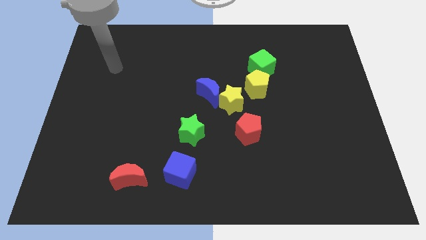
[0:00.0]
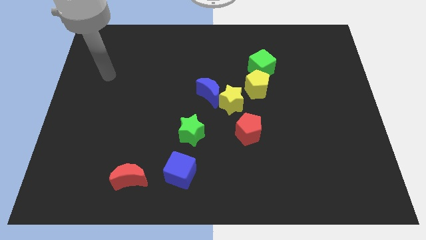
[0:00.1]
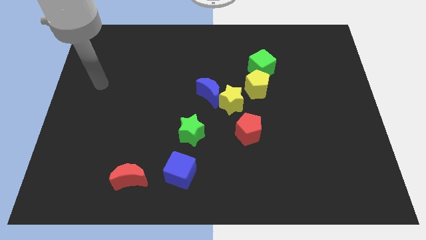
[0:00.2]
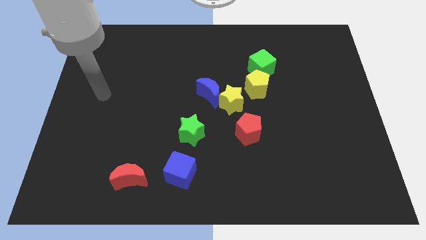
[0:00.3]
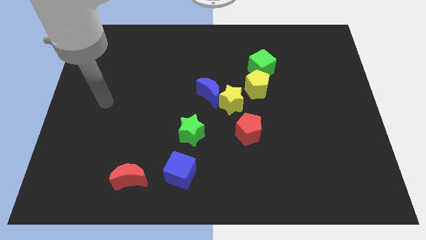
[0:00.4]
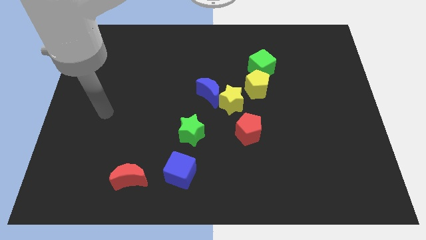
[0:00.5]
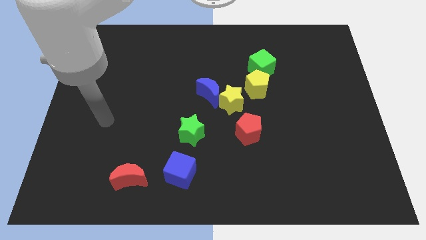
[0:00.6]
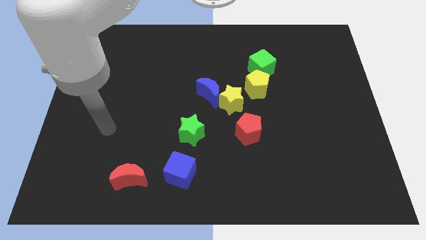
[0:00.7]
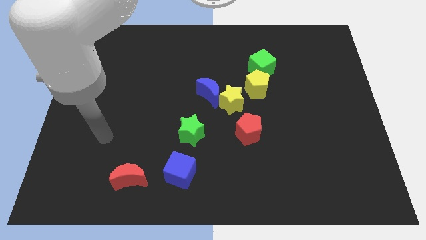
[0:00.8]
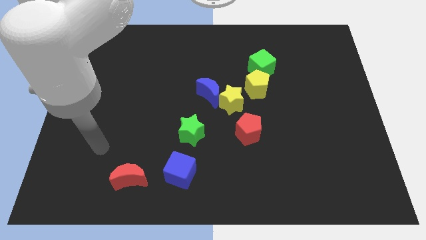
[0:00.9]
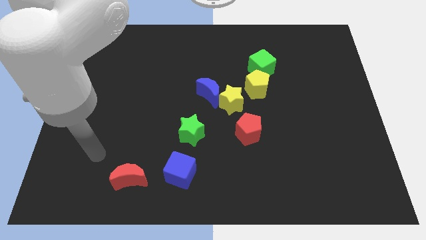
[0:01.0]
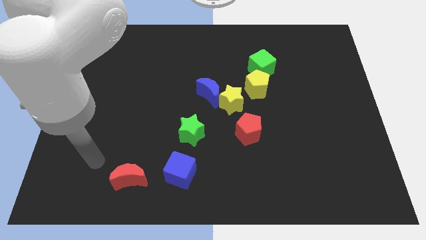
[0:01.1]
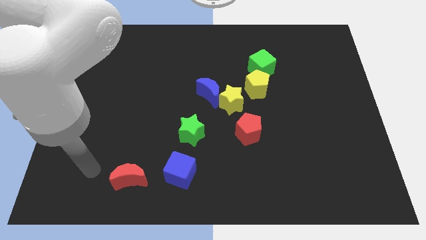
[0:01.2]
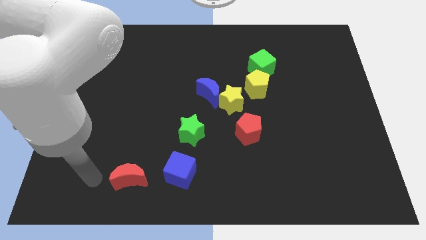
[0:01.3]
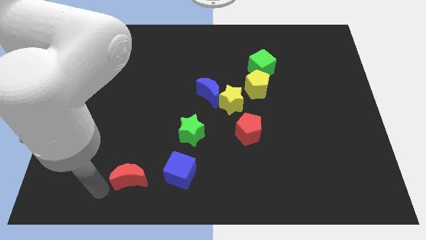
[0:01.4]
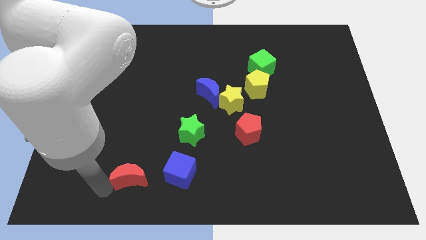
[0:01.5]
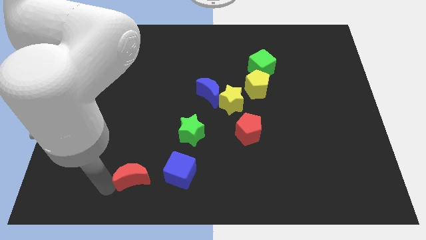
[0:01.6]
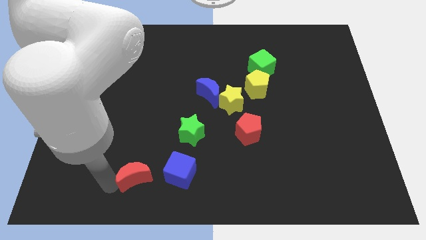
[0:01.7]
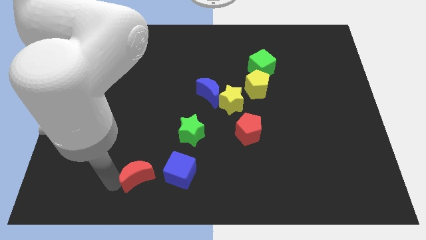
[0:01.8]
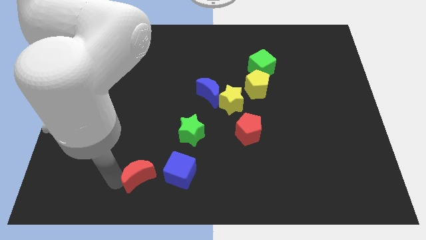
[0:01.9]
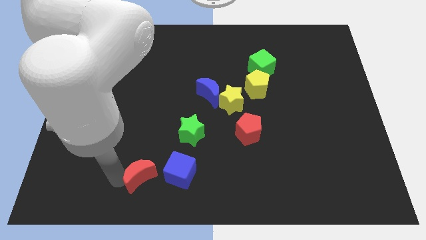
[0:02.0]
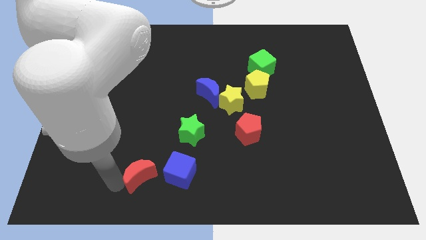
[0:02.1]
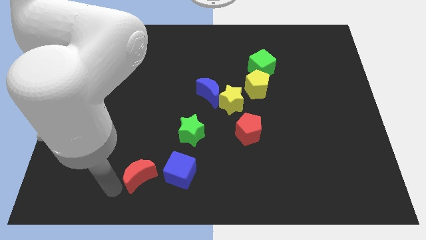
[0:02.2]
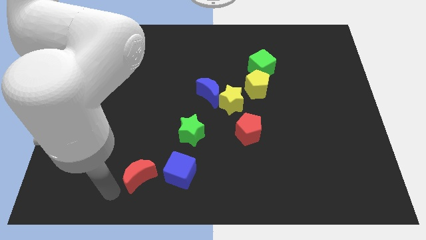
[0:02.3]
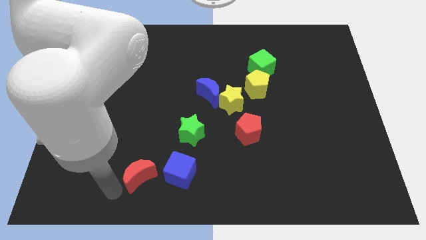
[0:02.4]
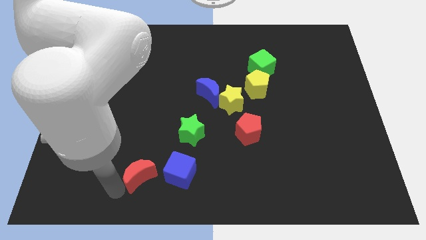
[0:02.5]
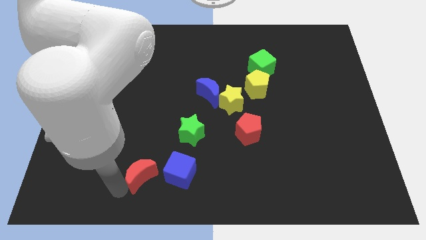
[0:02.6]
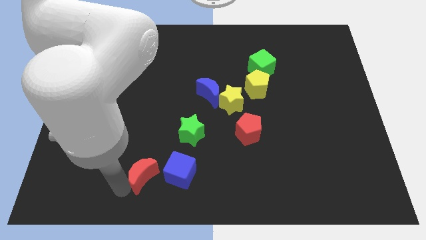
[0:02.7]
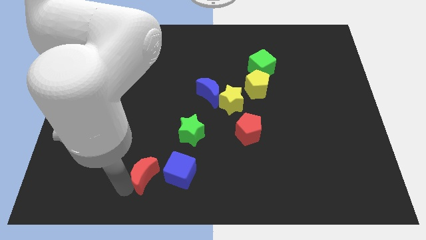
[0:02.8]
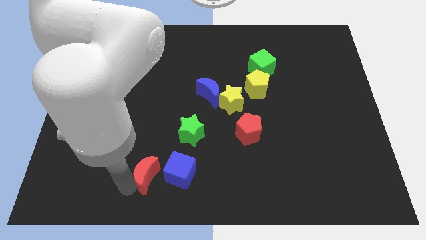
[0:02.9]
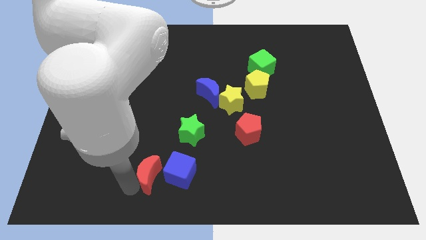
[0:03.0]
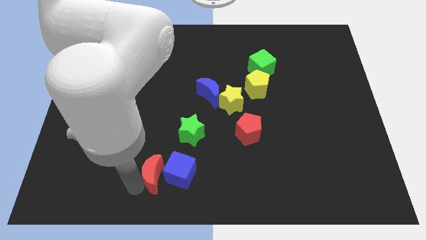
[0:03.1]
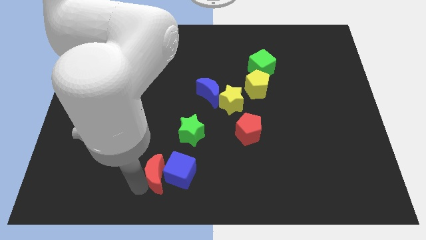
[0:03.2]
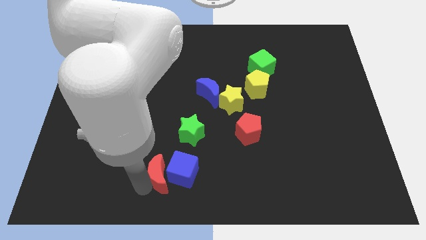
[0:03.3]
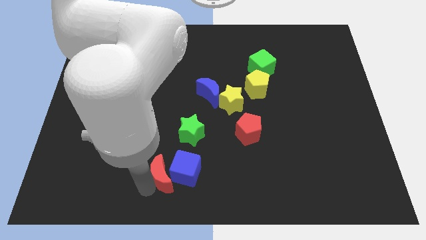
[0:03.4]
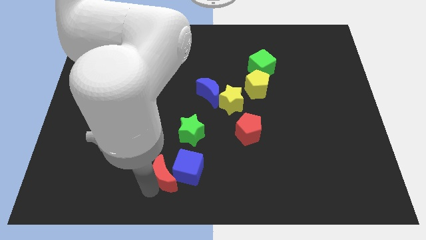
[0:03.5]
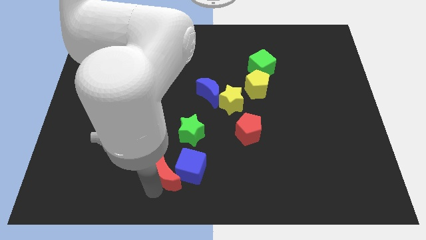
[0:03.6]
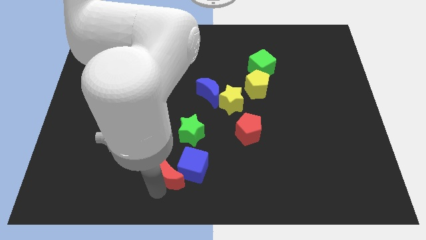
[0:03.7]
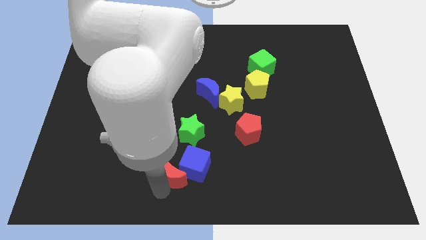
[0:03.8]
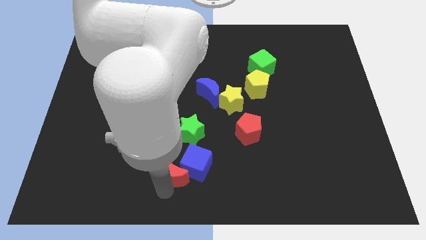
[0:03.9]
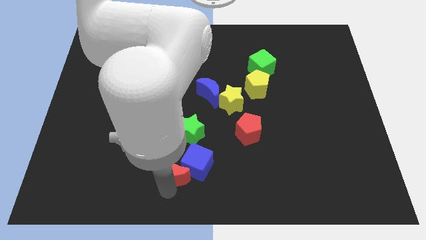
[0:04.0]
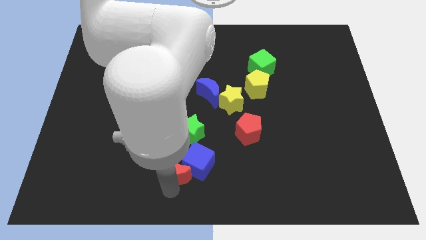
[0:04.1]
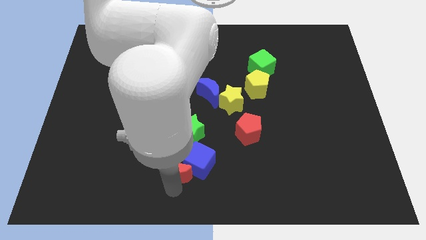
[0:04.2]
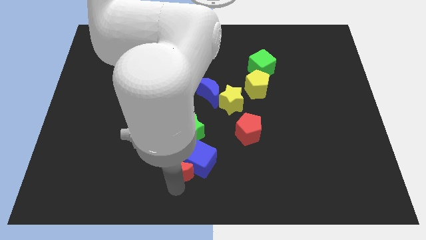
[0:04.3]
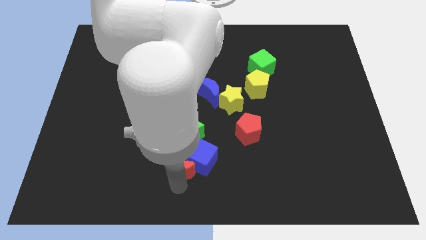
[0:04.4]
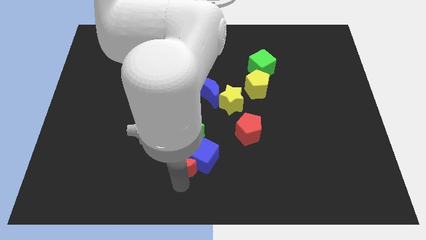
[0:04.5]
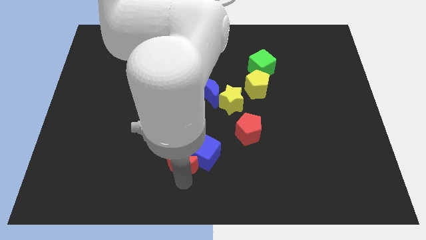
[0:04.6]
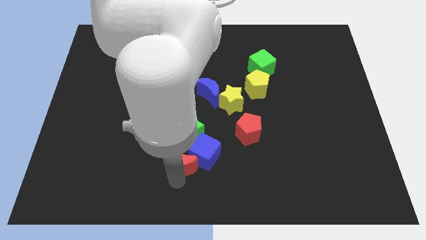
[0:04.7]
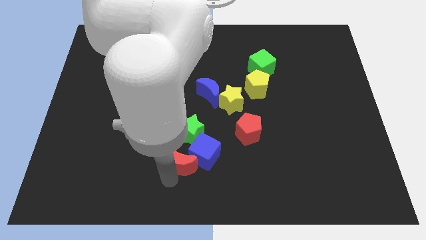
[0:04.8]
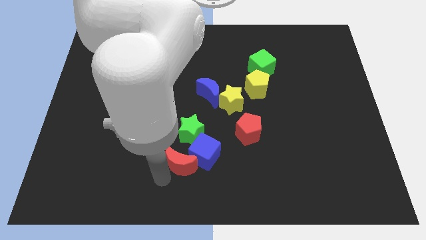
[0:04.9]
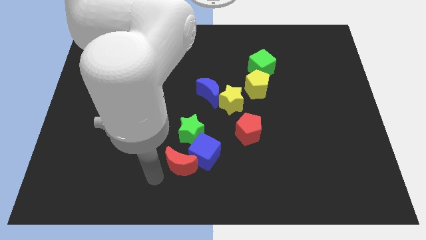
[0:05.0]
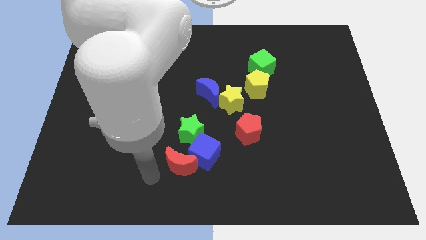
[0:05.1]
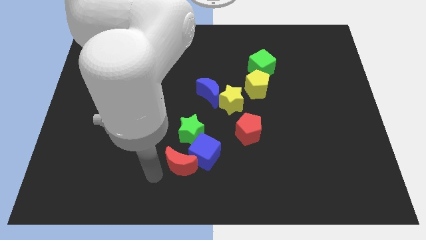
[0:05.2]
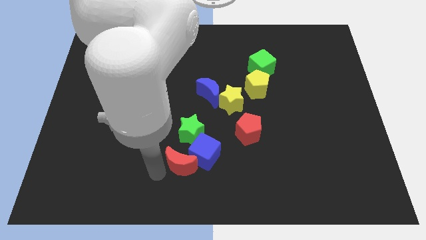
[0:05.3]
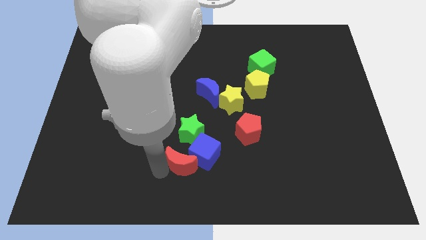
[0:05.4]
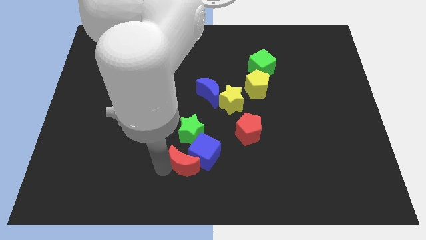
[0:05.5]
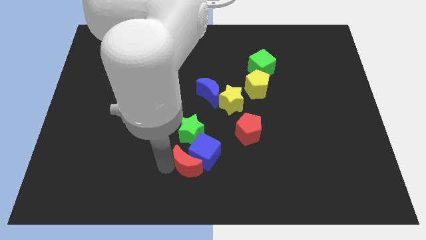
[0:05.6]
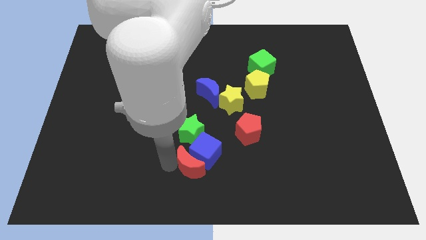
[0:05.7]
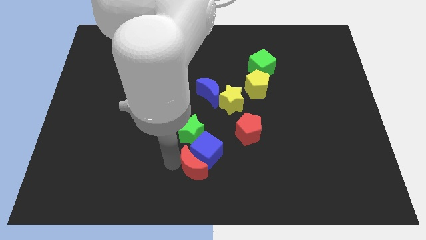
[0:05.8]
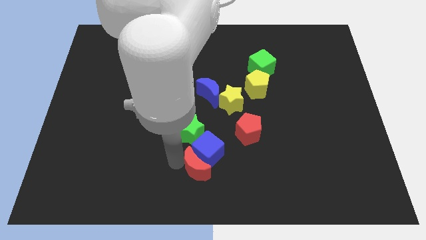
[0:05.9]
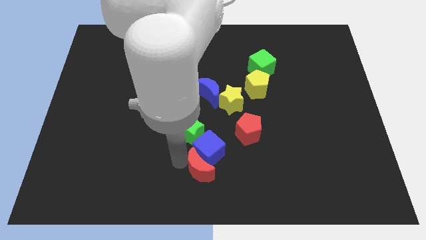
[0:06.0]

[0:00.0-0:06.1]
push the red moon to the bottom right of the green star

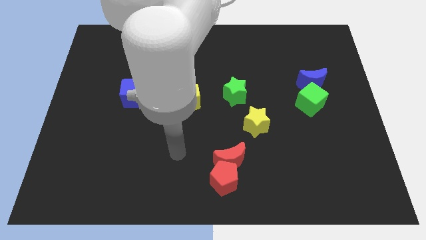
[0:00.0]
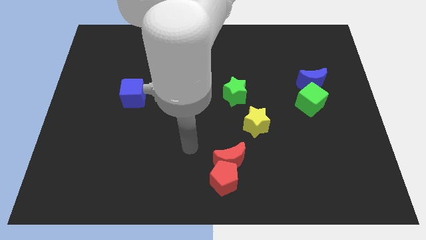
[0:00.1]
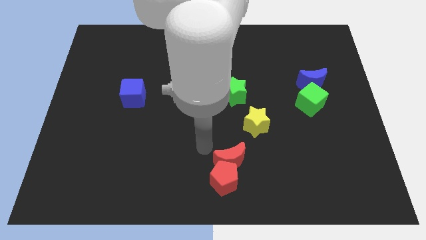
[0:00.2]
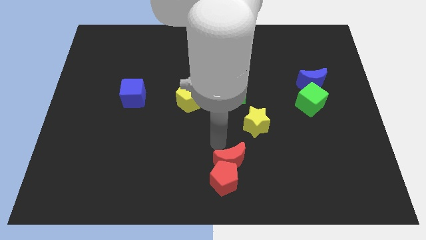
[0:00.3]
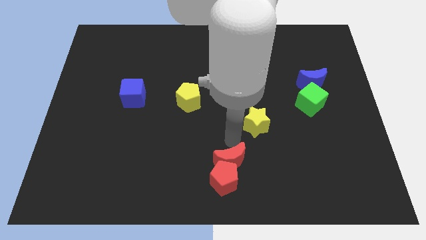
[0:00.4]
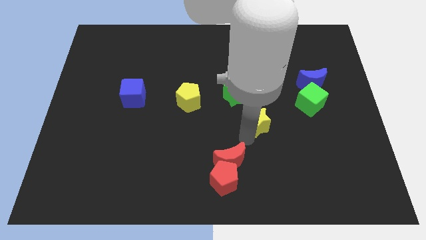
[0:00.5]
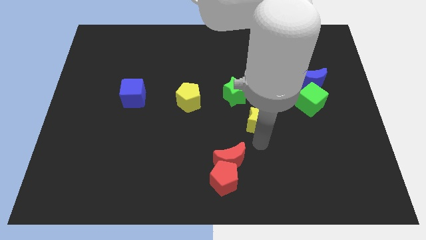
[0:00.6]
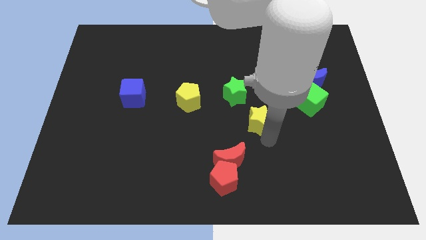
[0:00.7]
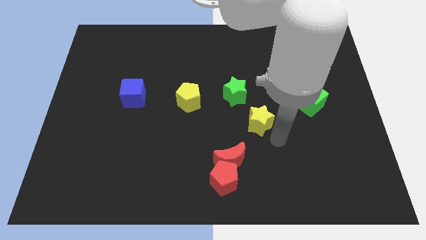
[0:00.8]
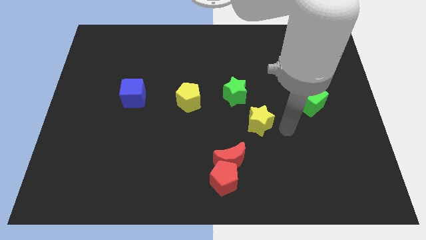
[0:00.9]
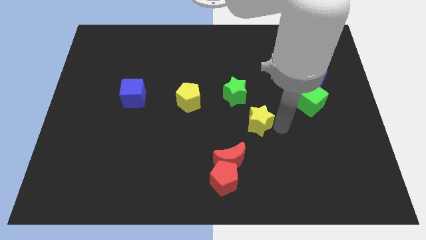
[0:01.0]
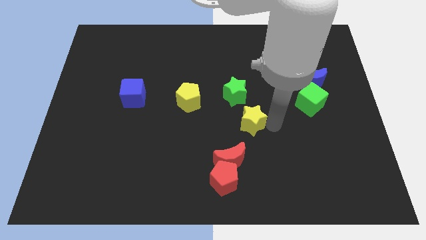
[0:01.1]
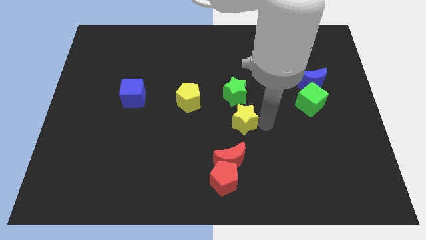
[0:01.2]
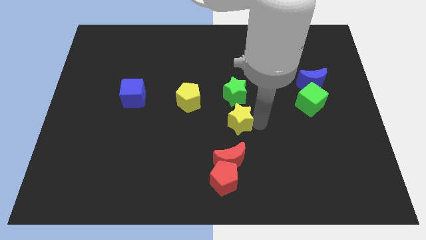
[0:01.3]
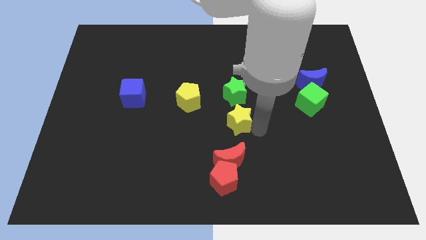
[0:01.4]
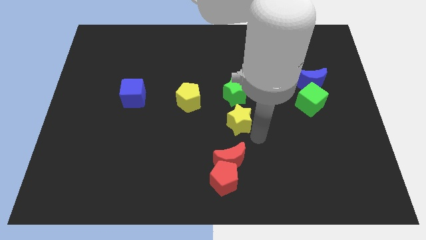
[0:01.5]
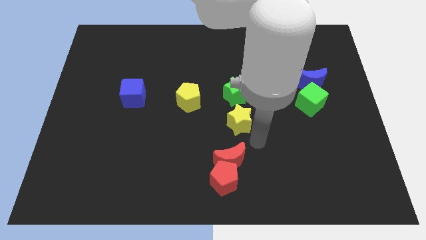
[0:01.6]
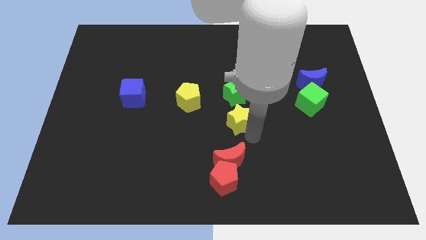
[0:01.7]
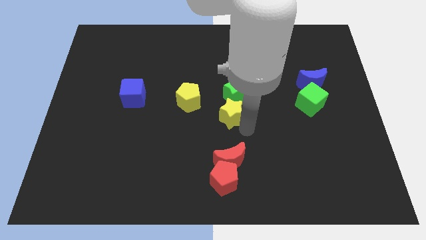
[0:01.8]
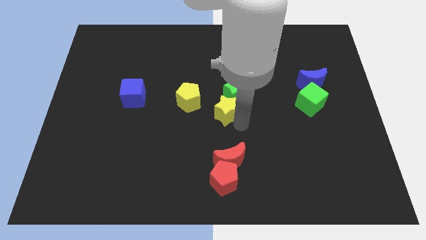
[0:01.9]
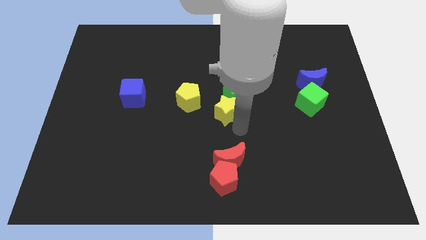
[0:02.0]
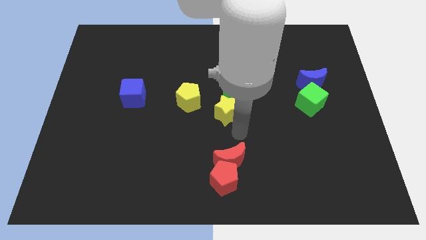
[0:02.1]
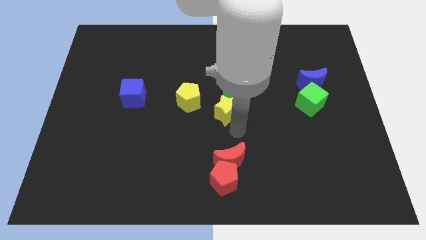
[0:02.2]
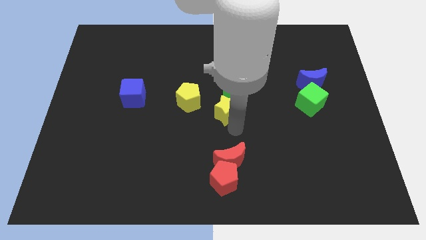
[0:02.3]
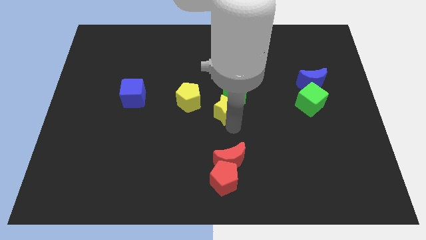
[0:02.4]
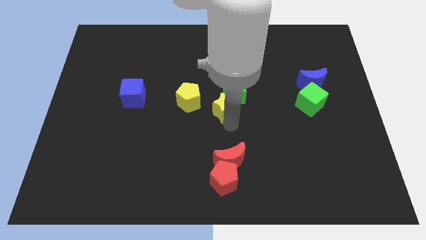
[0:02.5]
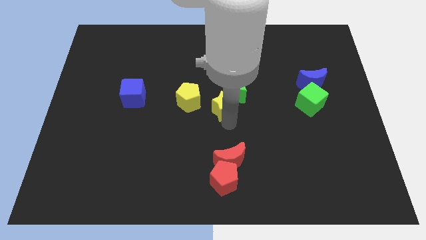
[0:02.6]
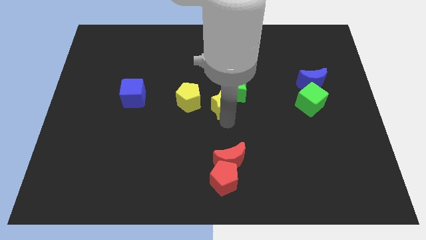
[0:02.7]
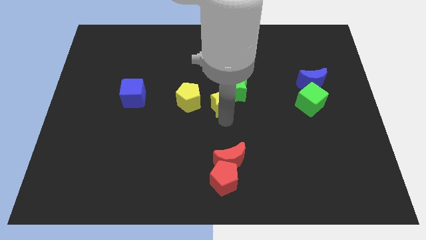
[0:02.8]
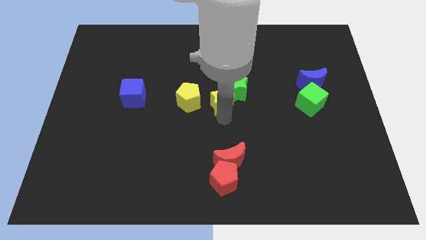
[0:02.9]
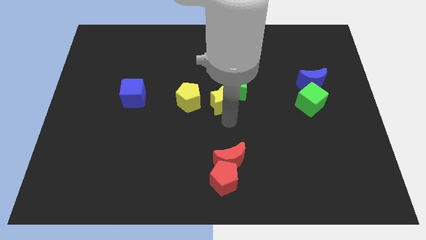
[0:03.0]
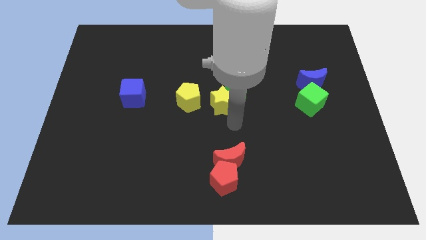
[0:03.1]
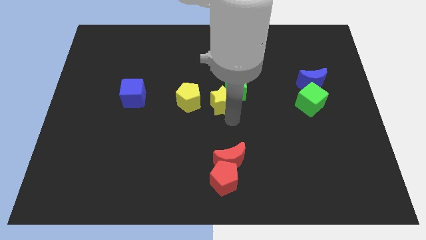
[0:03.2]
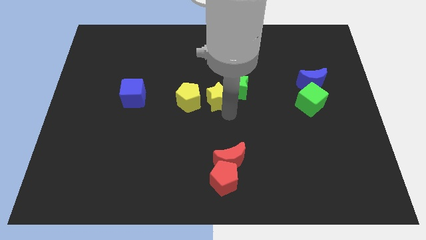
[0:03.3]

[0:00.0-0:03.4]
move the yellow star to the top right side of the yellow pentagon
